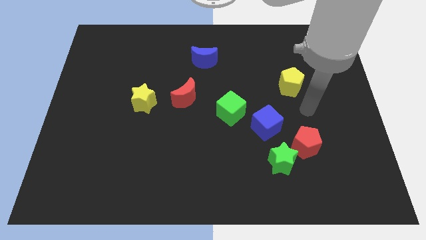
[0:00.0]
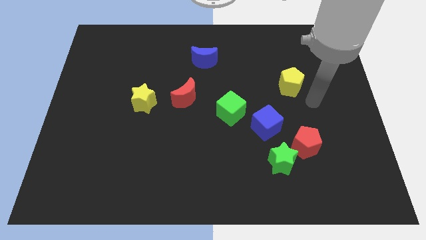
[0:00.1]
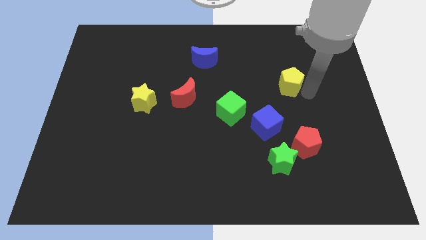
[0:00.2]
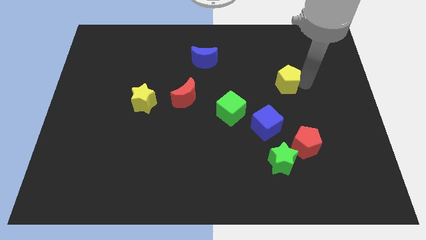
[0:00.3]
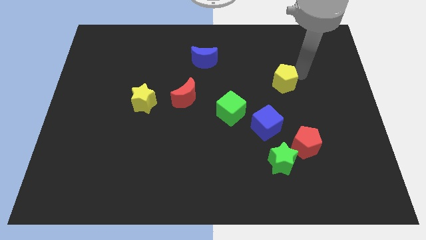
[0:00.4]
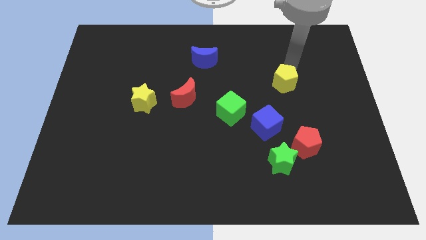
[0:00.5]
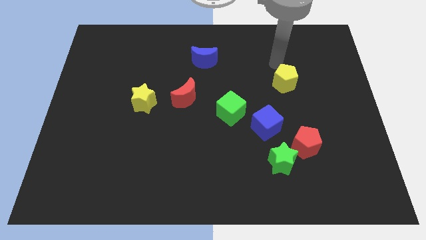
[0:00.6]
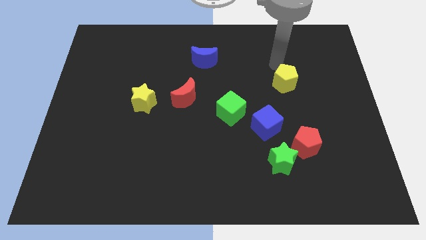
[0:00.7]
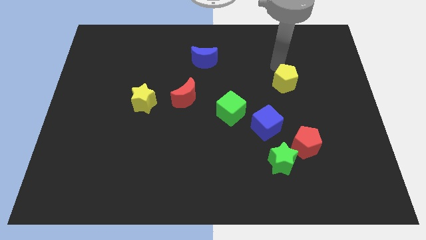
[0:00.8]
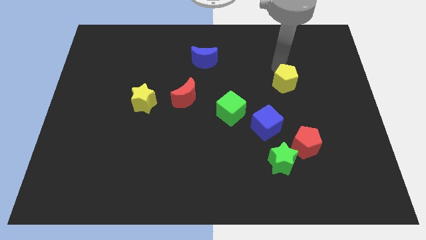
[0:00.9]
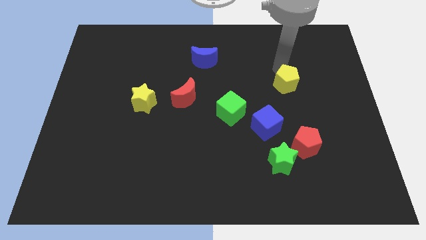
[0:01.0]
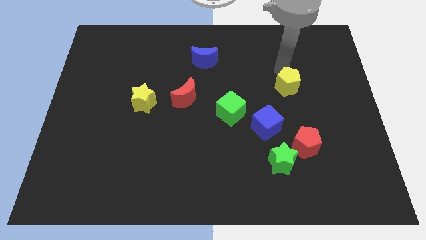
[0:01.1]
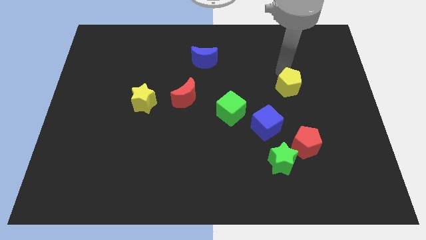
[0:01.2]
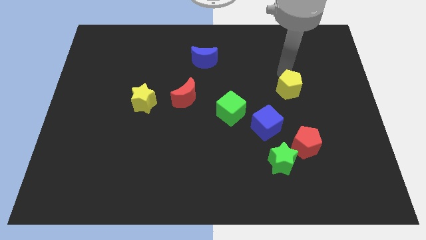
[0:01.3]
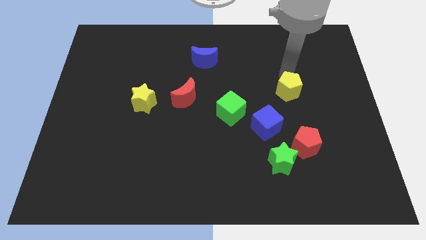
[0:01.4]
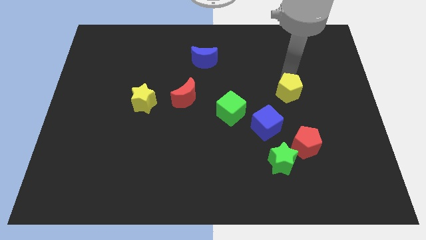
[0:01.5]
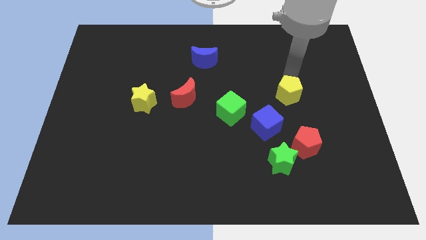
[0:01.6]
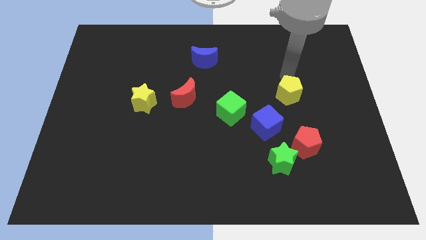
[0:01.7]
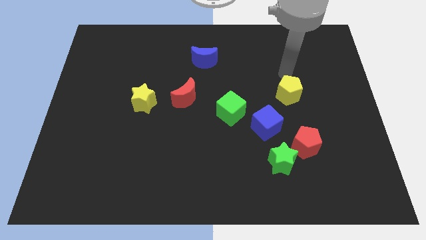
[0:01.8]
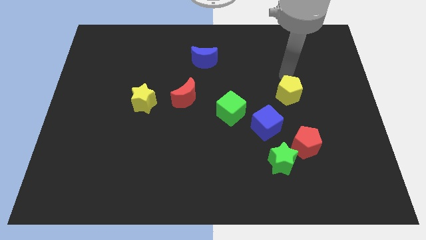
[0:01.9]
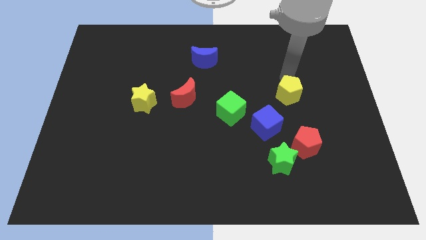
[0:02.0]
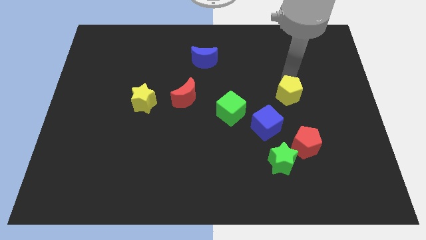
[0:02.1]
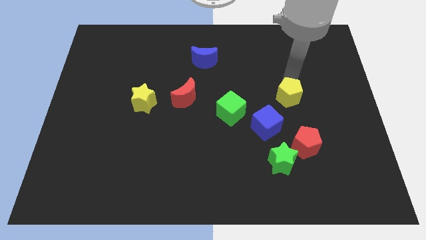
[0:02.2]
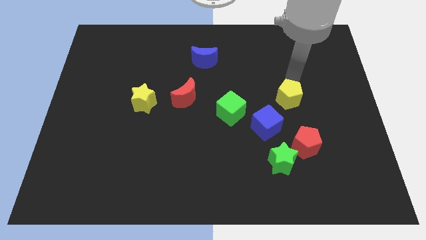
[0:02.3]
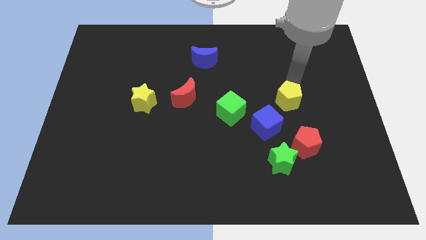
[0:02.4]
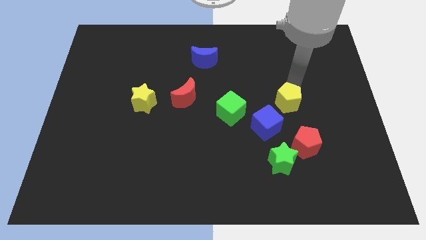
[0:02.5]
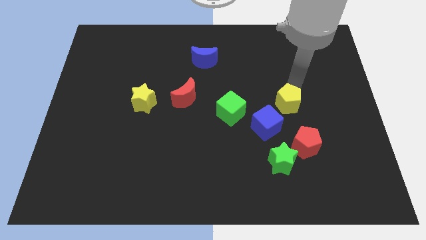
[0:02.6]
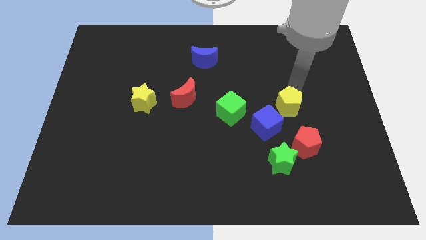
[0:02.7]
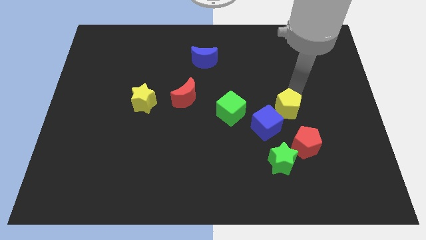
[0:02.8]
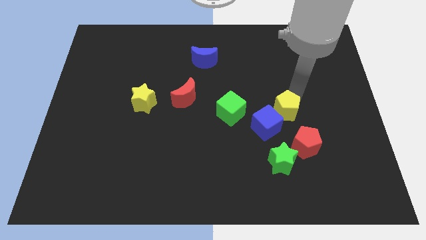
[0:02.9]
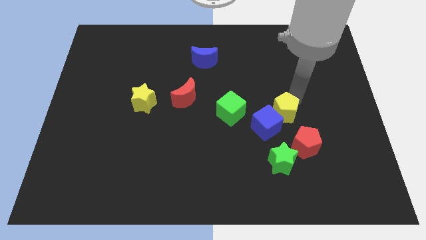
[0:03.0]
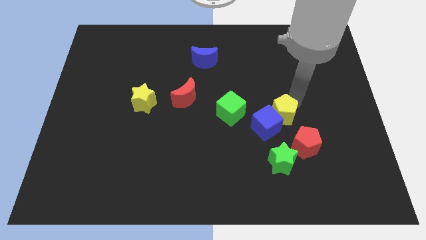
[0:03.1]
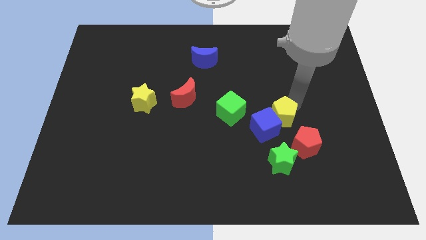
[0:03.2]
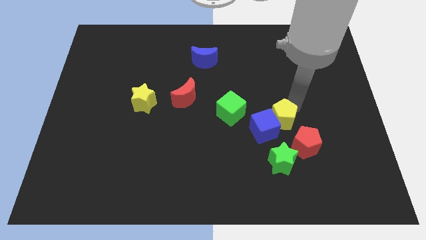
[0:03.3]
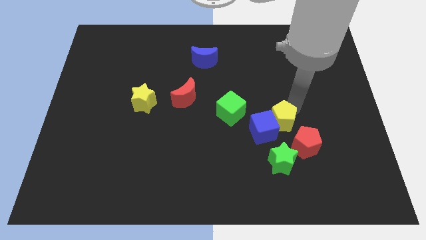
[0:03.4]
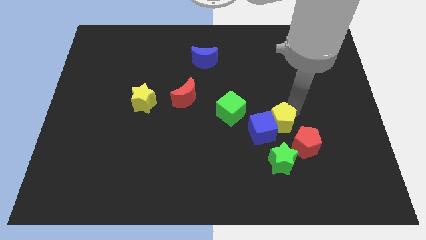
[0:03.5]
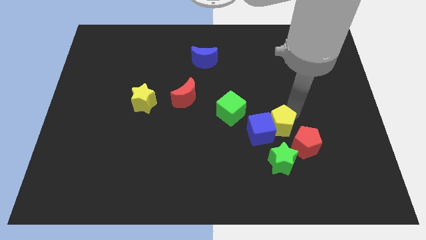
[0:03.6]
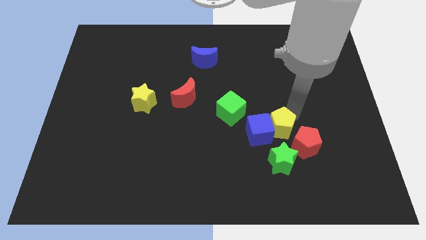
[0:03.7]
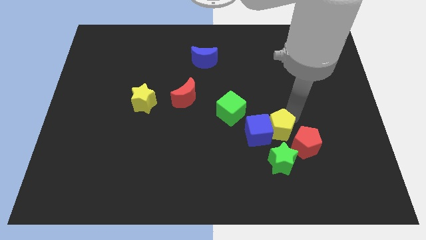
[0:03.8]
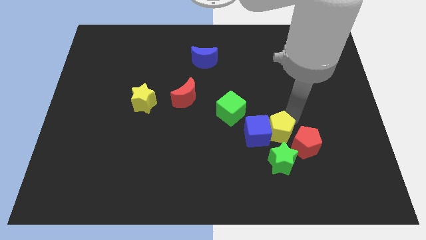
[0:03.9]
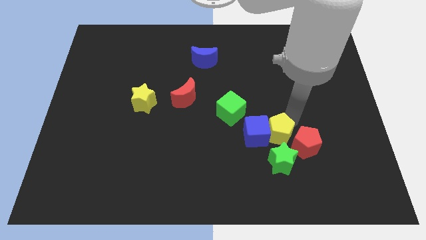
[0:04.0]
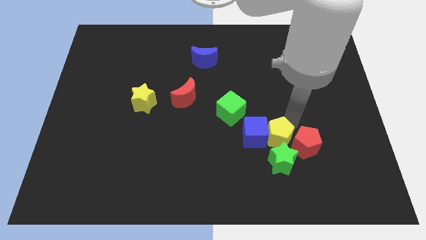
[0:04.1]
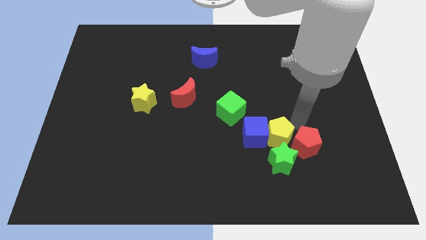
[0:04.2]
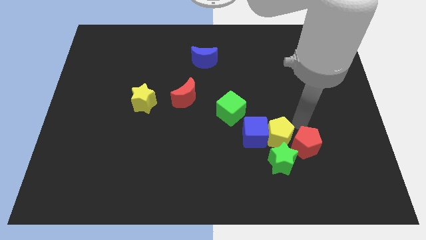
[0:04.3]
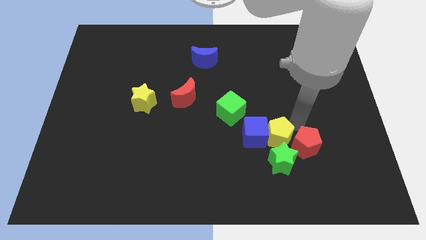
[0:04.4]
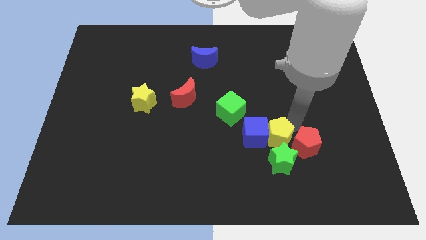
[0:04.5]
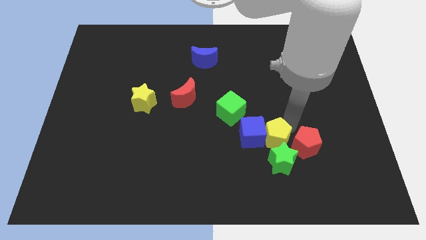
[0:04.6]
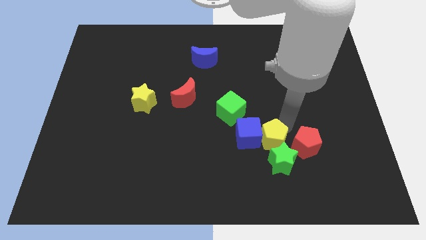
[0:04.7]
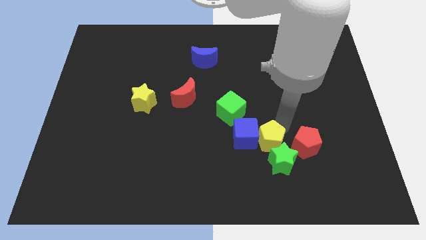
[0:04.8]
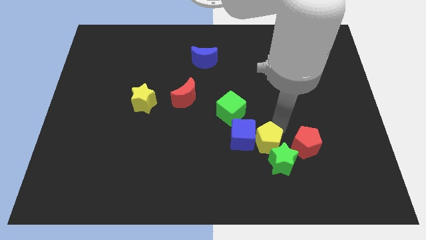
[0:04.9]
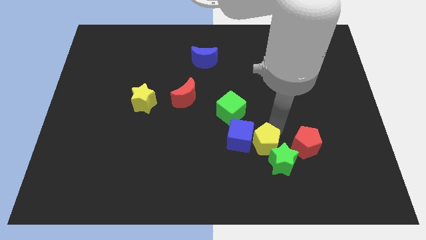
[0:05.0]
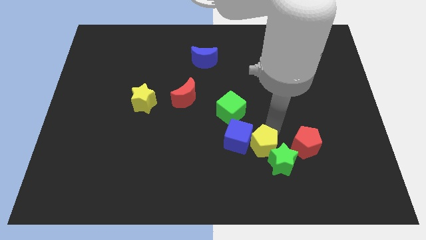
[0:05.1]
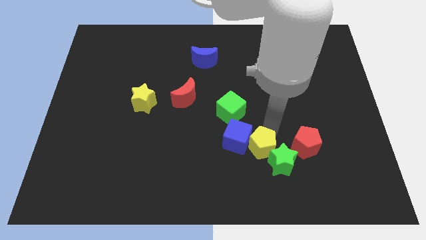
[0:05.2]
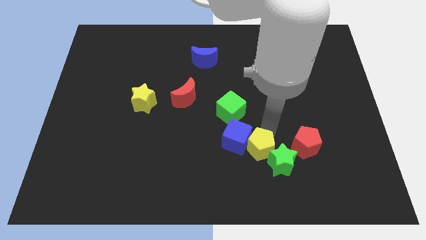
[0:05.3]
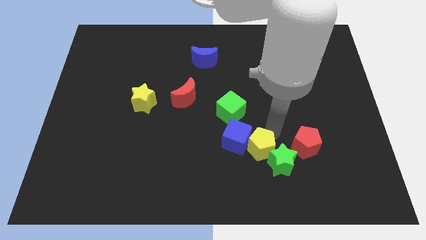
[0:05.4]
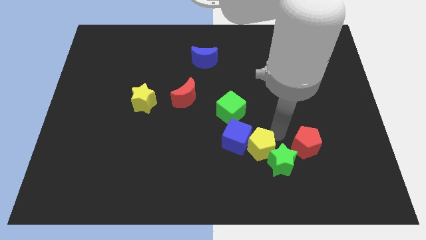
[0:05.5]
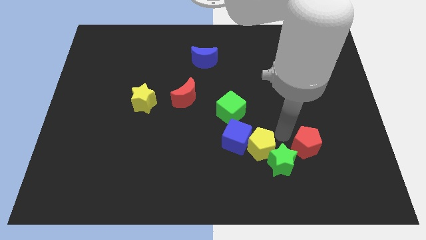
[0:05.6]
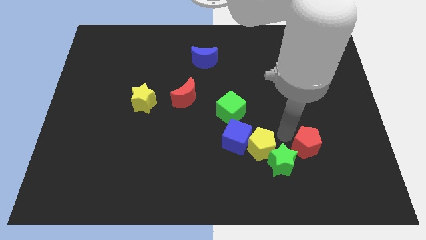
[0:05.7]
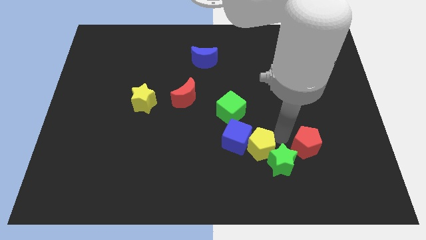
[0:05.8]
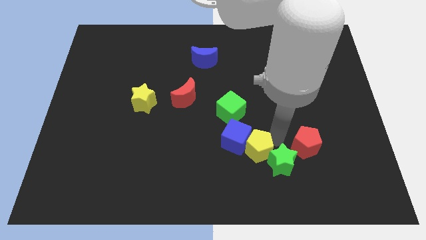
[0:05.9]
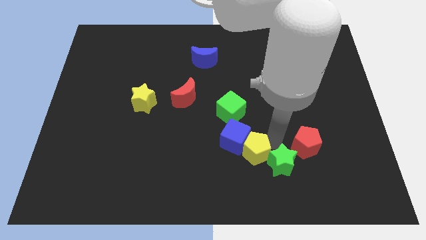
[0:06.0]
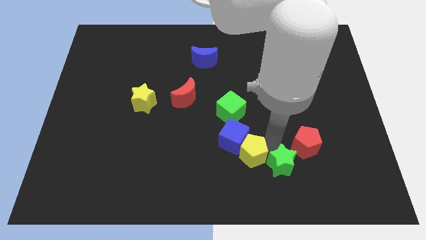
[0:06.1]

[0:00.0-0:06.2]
slide the yellow pentagon downwards and left

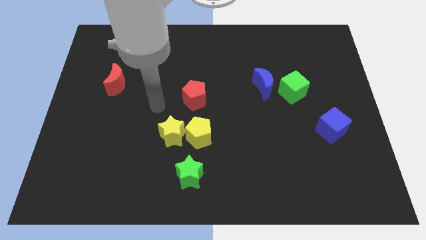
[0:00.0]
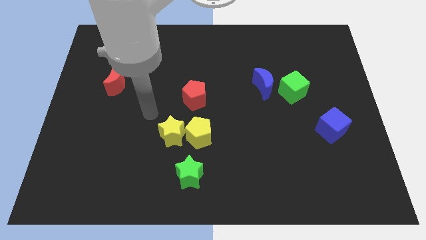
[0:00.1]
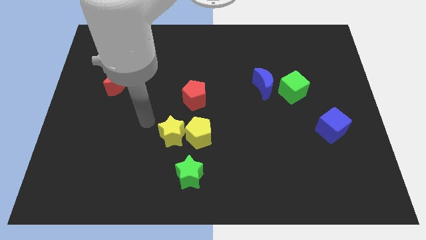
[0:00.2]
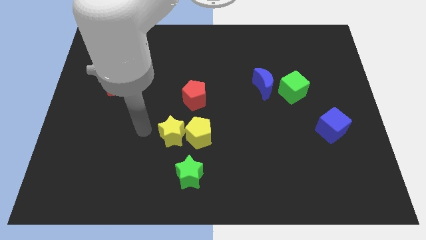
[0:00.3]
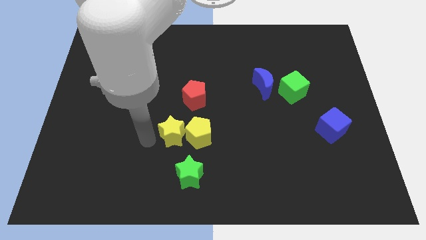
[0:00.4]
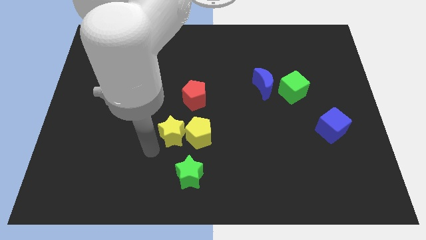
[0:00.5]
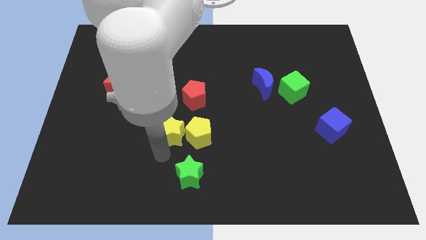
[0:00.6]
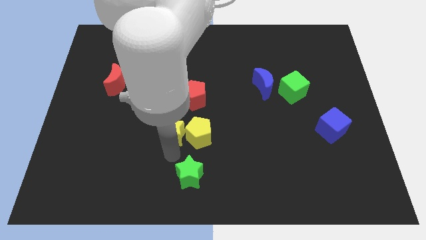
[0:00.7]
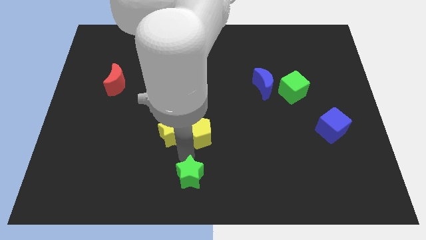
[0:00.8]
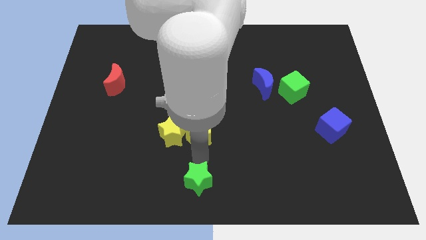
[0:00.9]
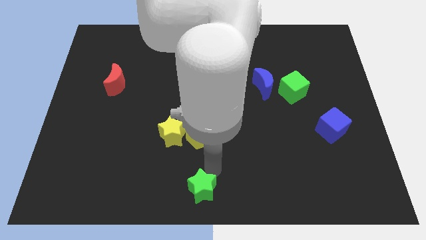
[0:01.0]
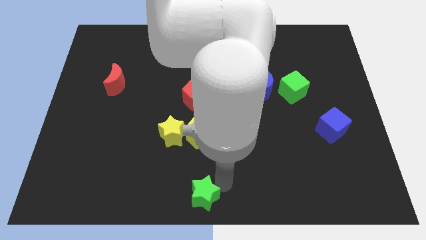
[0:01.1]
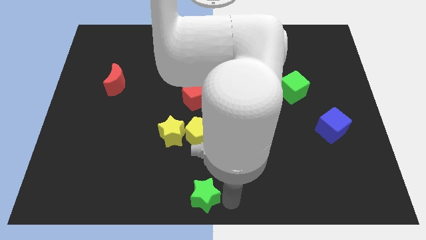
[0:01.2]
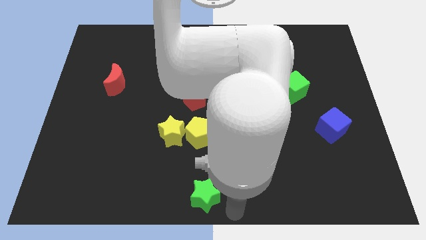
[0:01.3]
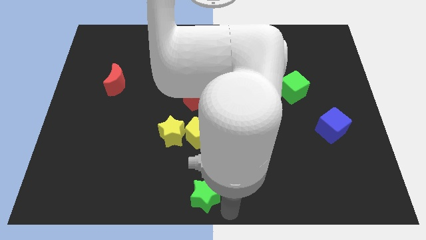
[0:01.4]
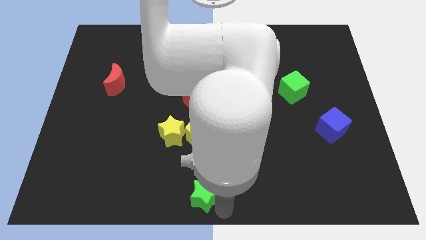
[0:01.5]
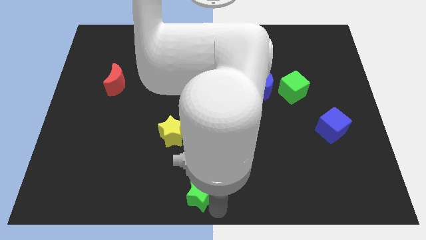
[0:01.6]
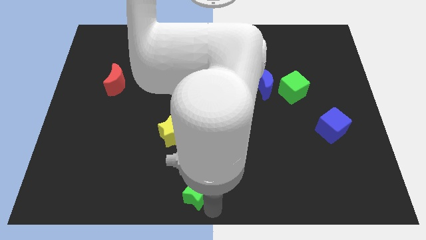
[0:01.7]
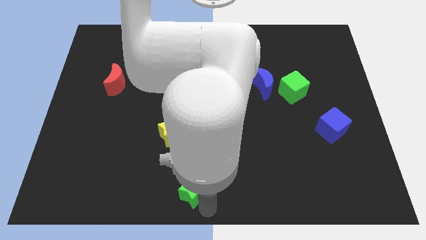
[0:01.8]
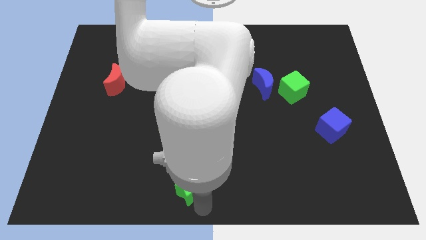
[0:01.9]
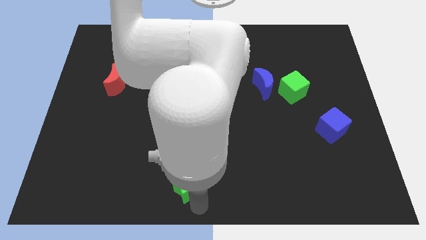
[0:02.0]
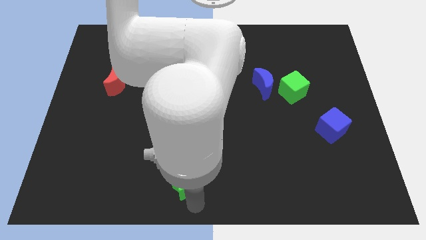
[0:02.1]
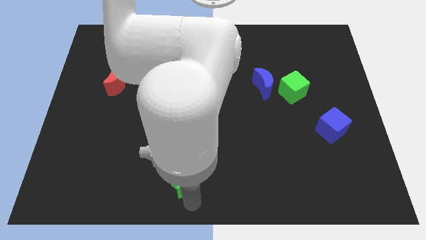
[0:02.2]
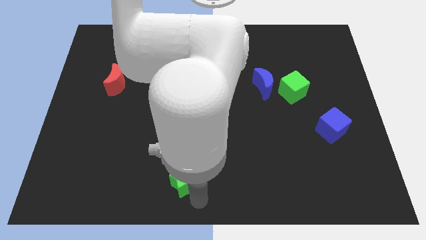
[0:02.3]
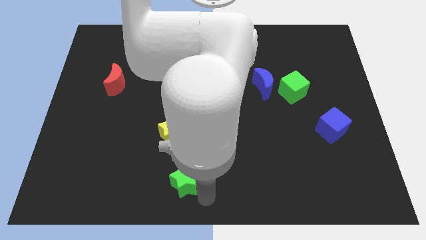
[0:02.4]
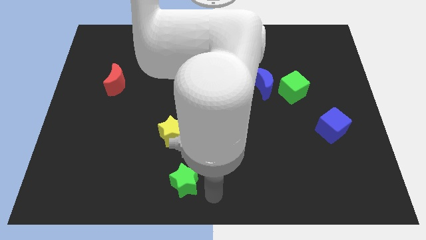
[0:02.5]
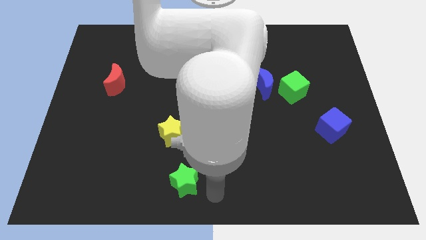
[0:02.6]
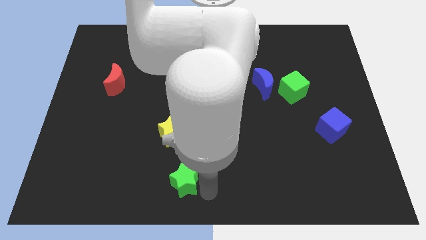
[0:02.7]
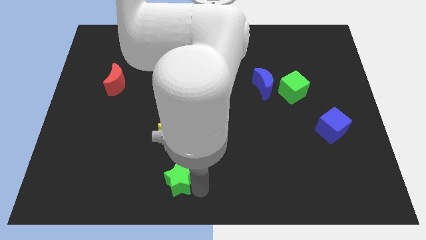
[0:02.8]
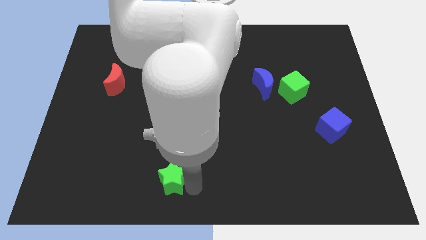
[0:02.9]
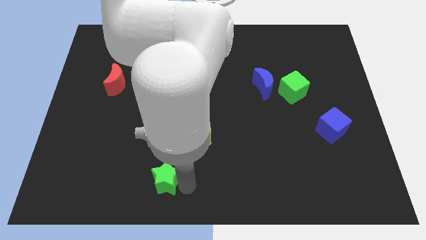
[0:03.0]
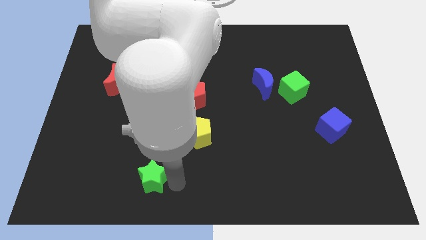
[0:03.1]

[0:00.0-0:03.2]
push the green star somewhat to the left
